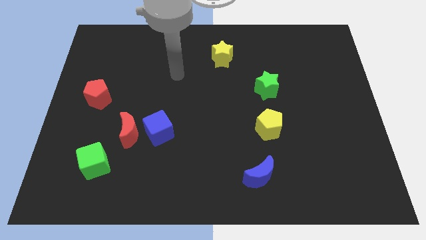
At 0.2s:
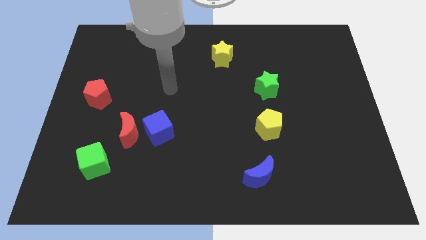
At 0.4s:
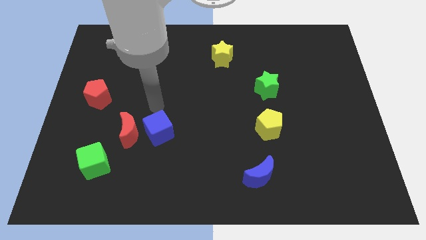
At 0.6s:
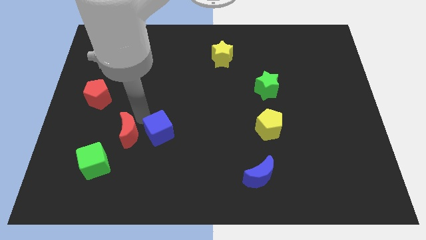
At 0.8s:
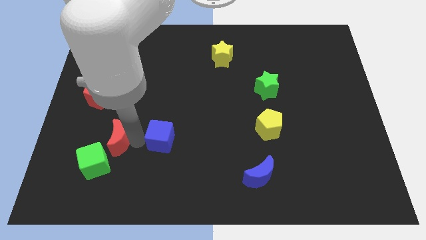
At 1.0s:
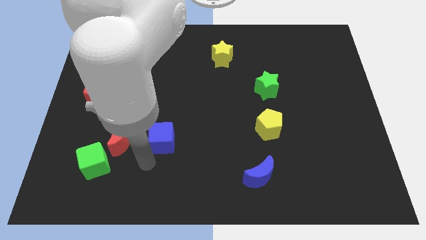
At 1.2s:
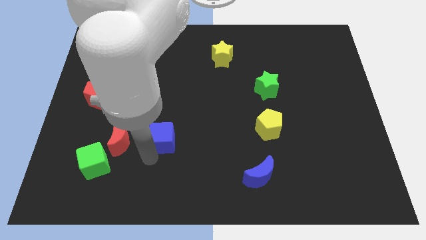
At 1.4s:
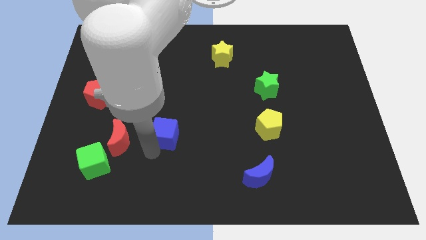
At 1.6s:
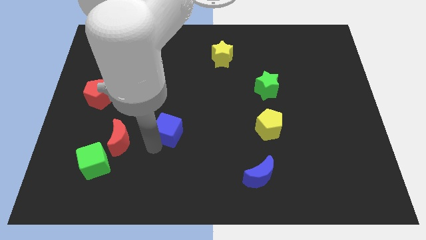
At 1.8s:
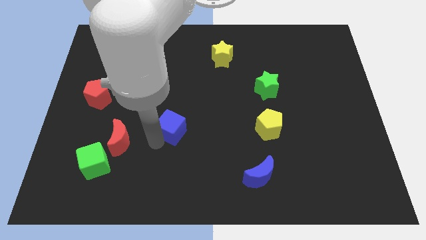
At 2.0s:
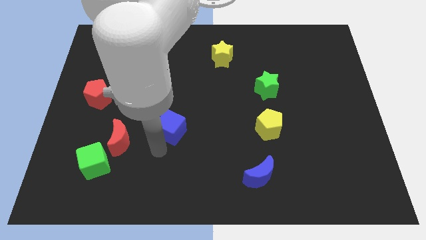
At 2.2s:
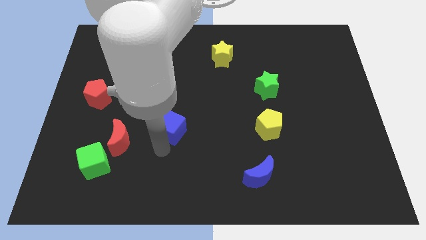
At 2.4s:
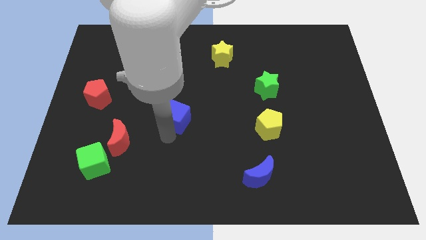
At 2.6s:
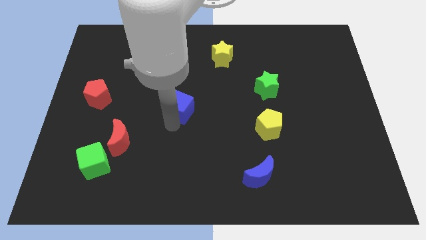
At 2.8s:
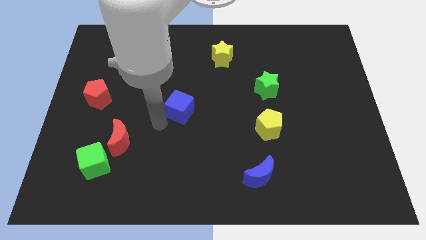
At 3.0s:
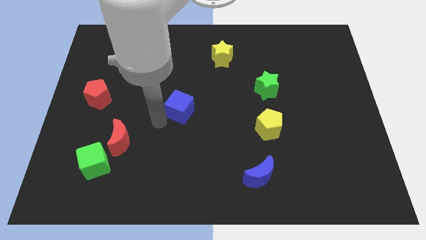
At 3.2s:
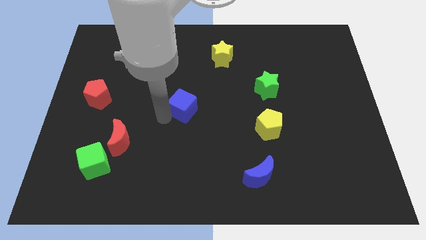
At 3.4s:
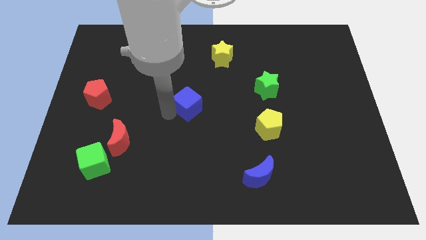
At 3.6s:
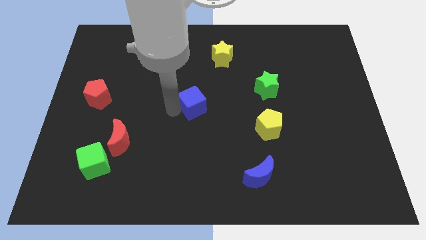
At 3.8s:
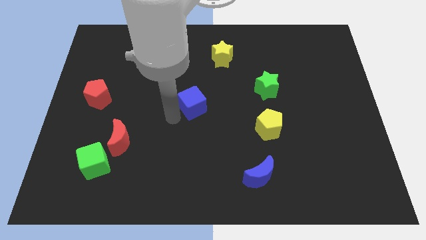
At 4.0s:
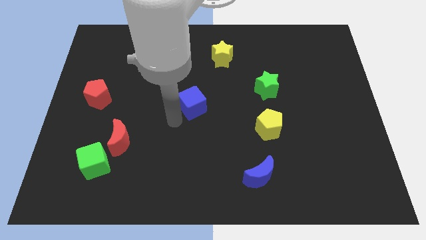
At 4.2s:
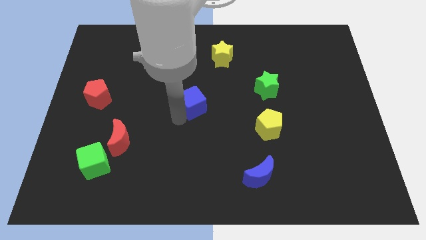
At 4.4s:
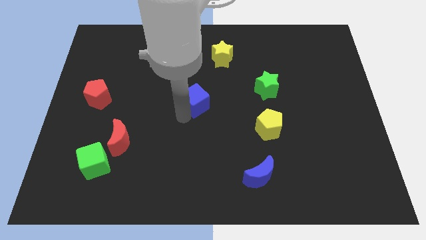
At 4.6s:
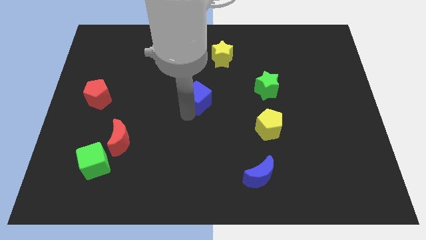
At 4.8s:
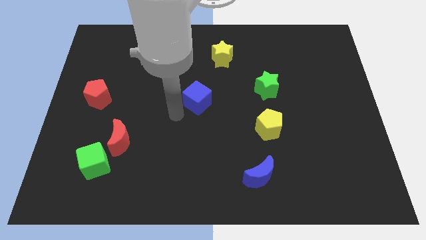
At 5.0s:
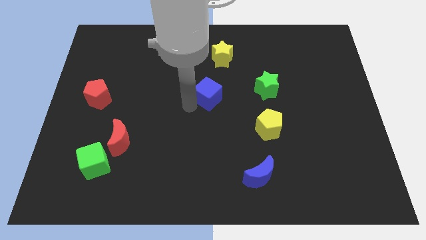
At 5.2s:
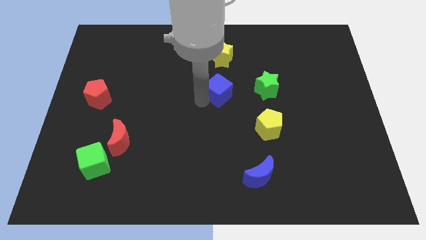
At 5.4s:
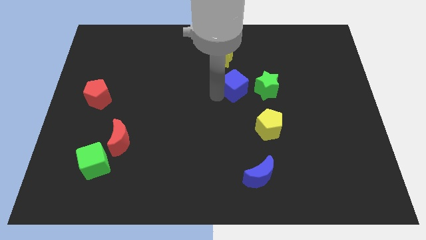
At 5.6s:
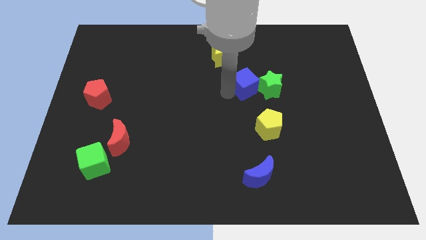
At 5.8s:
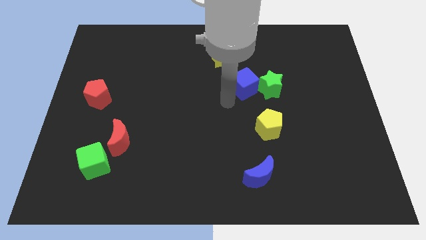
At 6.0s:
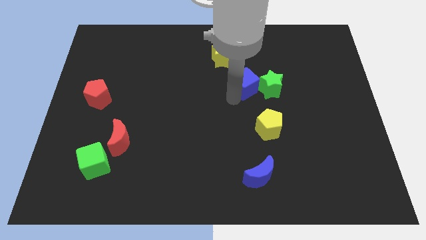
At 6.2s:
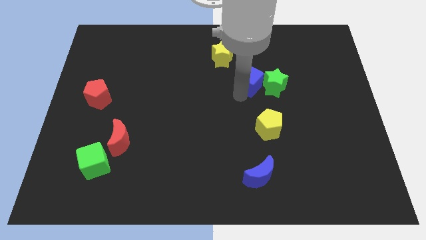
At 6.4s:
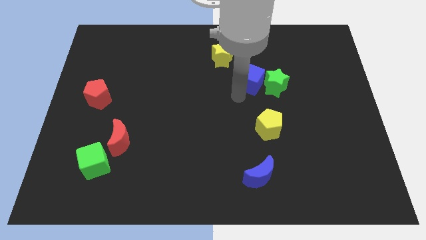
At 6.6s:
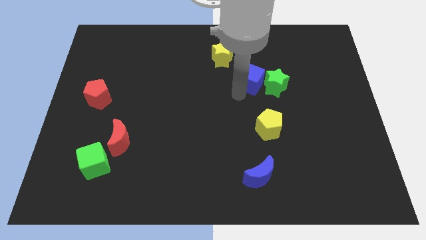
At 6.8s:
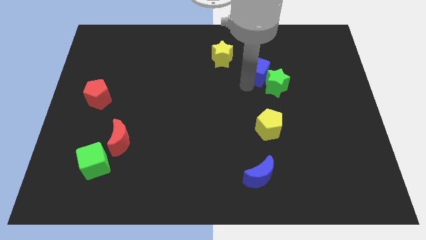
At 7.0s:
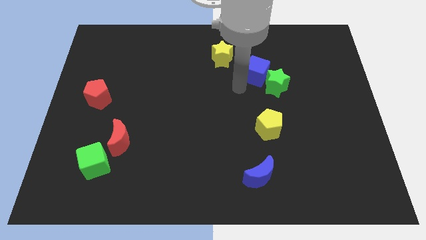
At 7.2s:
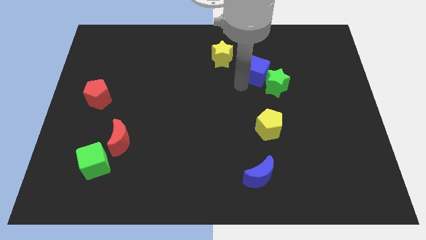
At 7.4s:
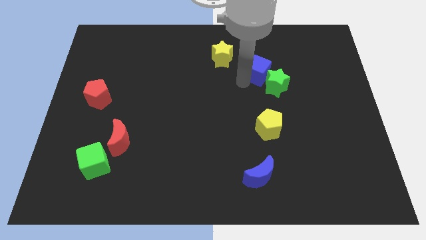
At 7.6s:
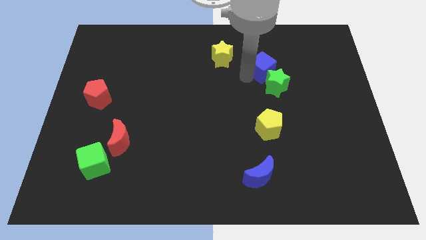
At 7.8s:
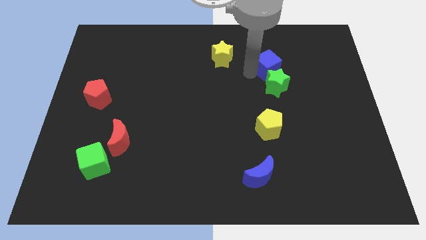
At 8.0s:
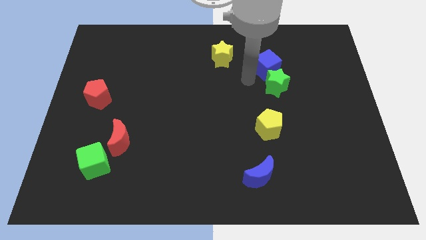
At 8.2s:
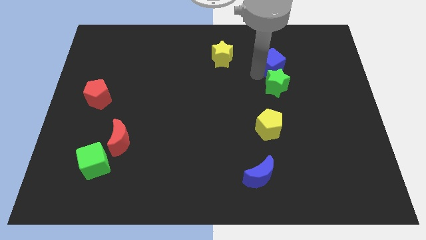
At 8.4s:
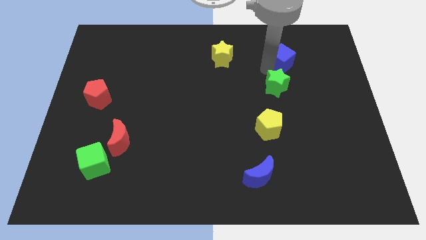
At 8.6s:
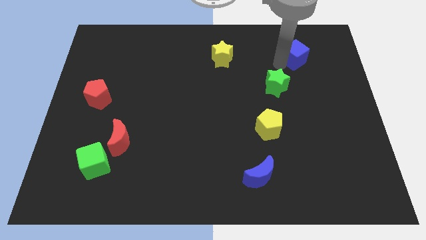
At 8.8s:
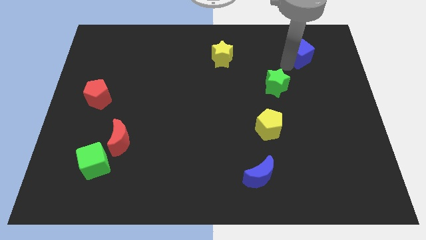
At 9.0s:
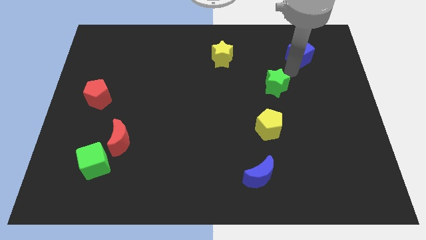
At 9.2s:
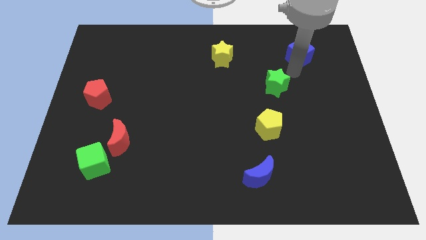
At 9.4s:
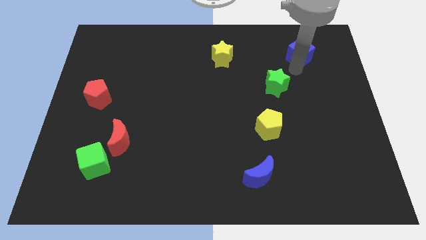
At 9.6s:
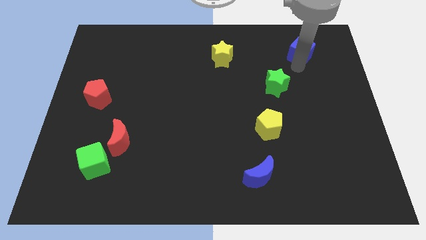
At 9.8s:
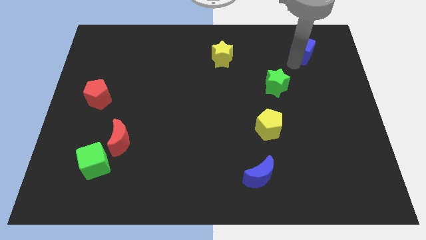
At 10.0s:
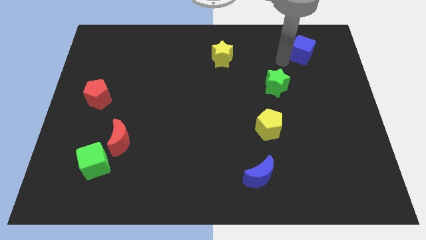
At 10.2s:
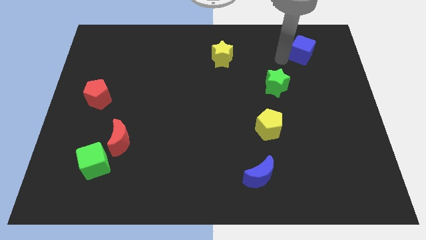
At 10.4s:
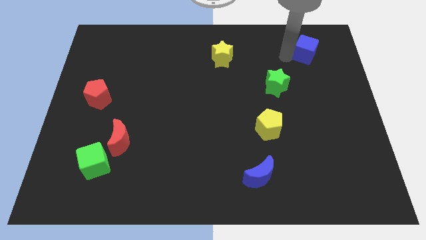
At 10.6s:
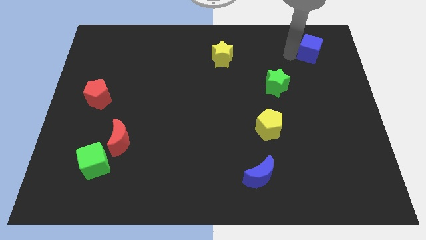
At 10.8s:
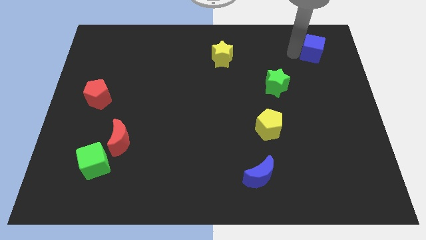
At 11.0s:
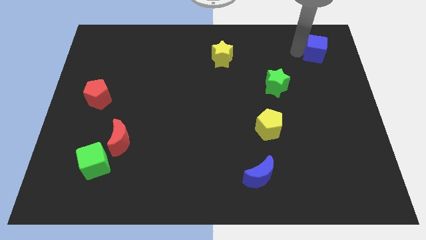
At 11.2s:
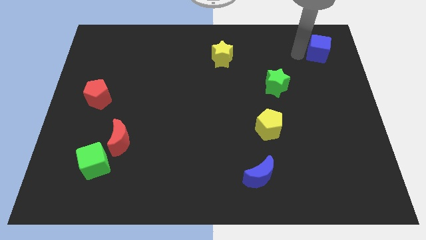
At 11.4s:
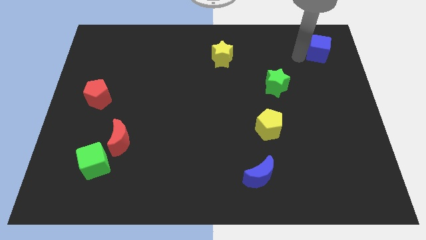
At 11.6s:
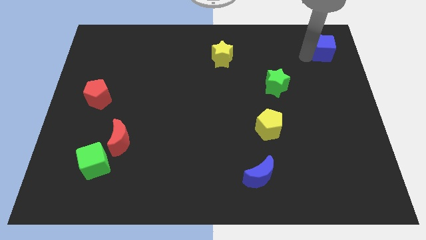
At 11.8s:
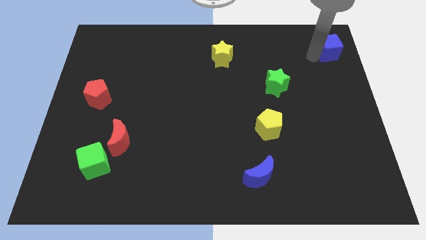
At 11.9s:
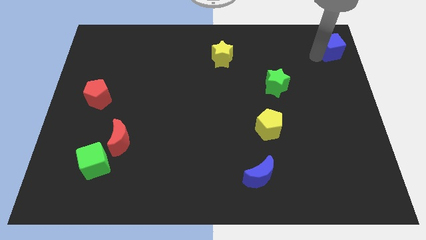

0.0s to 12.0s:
move the blue cube to the top right corner
